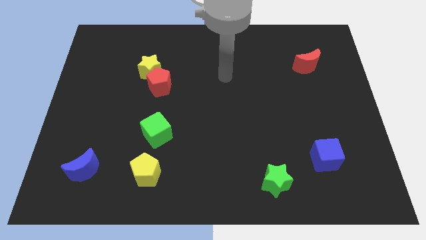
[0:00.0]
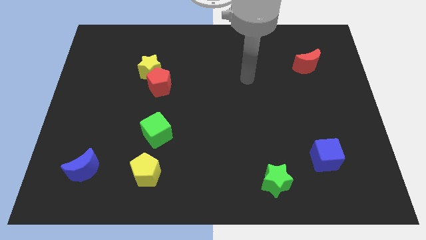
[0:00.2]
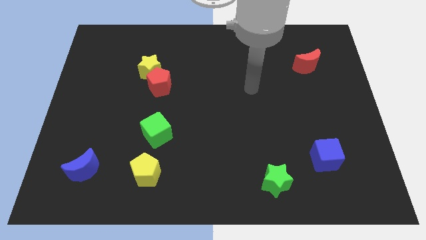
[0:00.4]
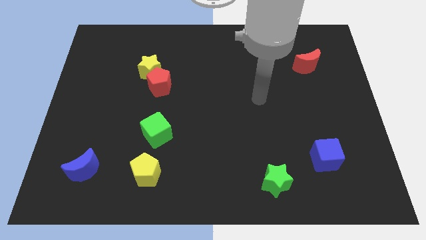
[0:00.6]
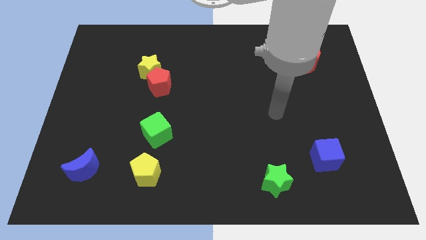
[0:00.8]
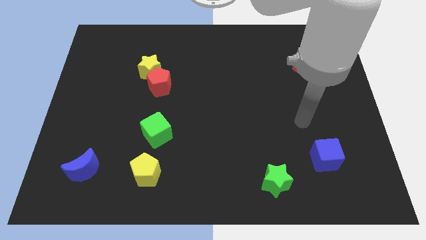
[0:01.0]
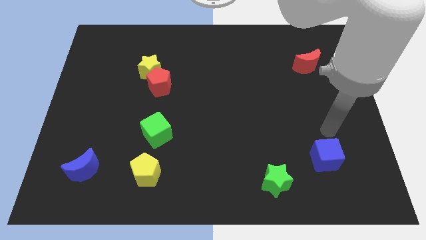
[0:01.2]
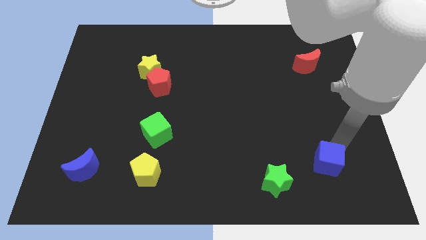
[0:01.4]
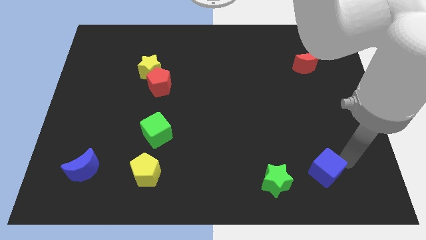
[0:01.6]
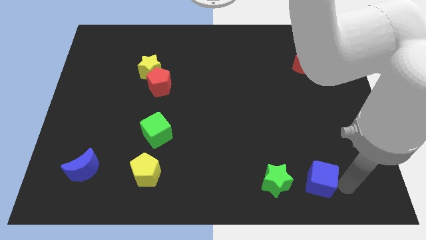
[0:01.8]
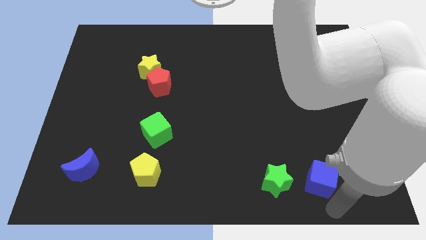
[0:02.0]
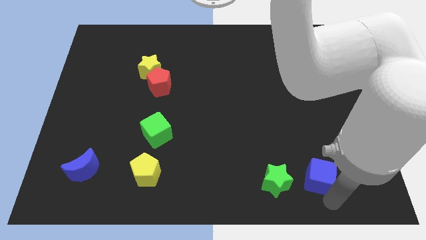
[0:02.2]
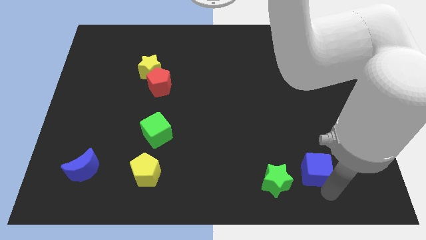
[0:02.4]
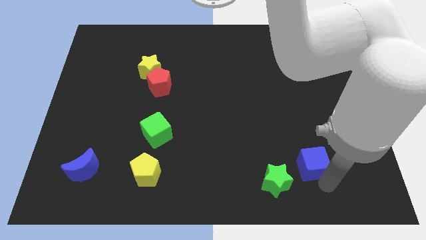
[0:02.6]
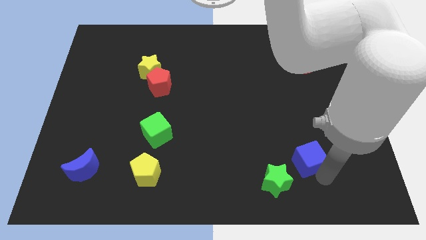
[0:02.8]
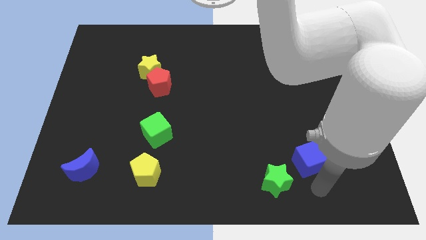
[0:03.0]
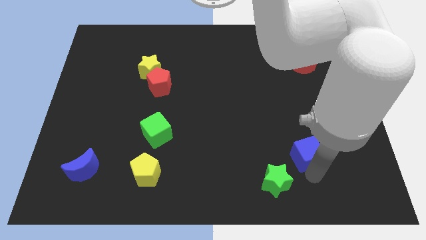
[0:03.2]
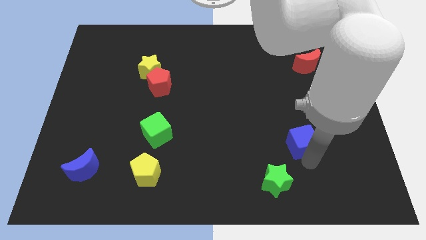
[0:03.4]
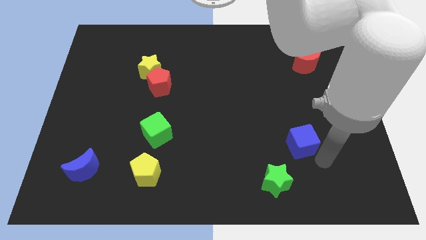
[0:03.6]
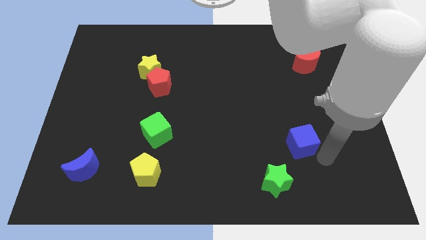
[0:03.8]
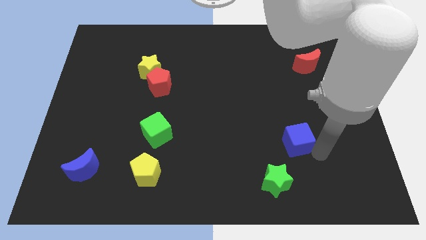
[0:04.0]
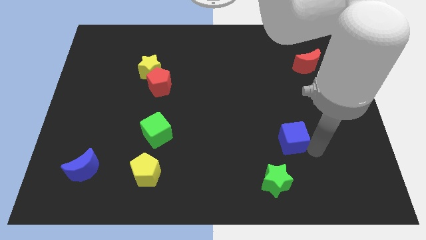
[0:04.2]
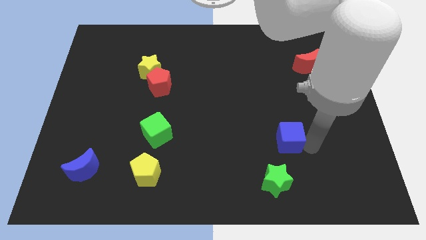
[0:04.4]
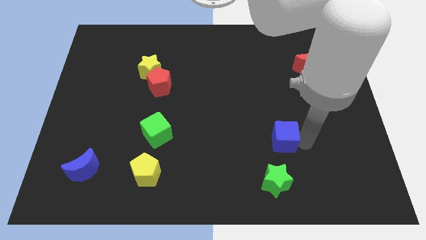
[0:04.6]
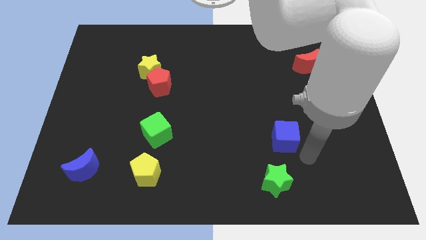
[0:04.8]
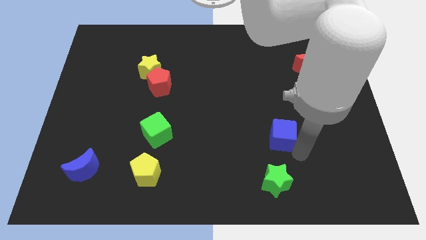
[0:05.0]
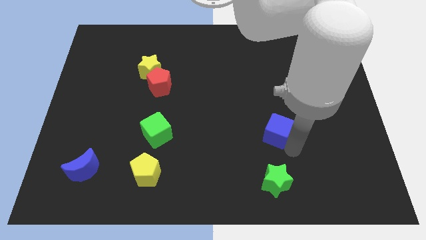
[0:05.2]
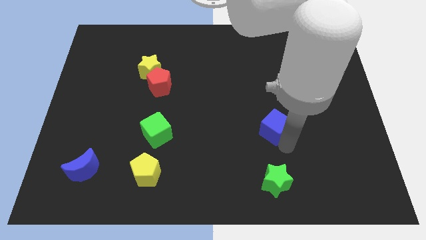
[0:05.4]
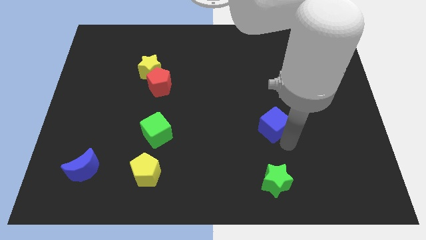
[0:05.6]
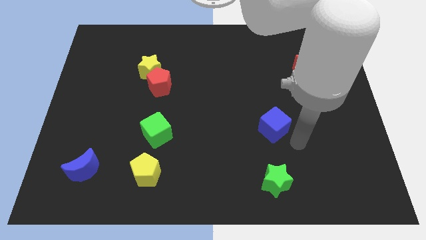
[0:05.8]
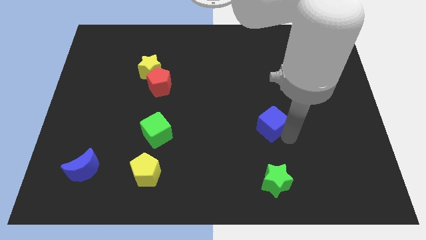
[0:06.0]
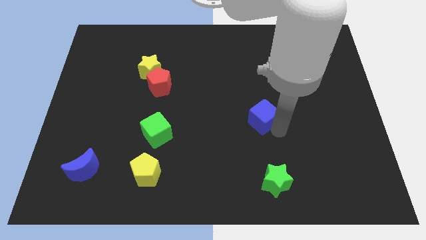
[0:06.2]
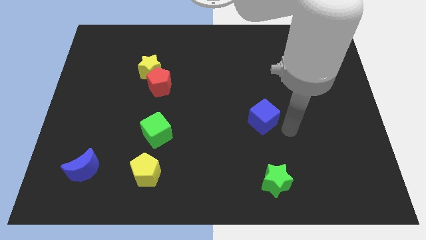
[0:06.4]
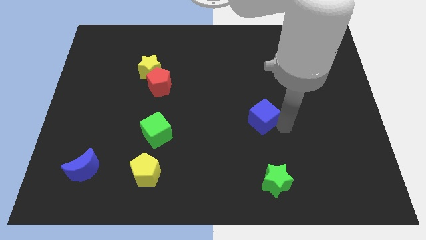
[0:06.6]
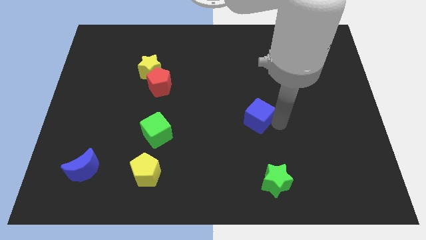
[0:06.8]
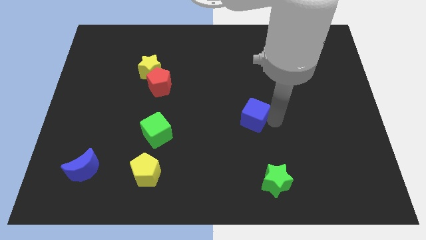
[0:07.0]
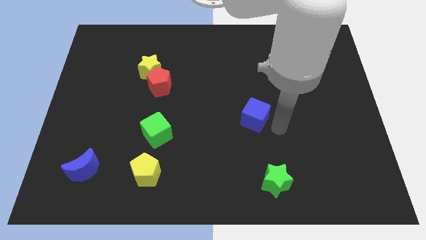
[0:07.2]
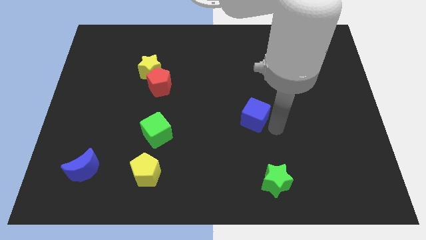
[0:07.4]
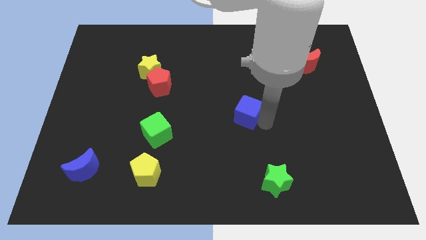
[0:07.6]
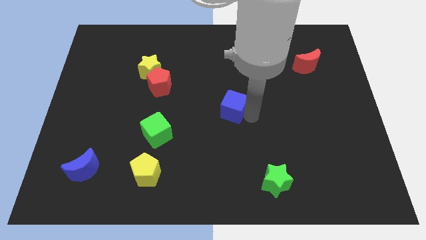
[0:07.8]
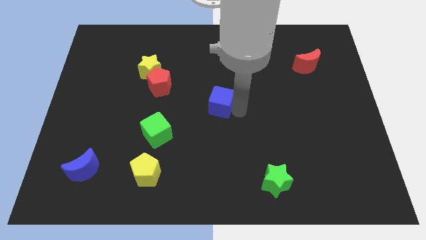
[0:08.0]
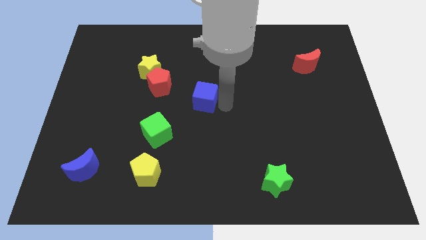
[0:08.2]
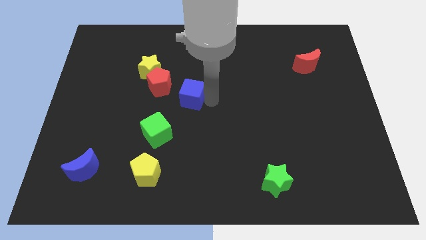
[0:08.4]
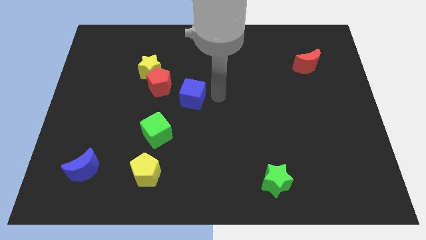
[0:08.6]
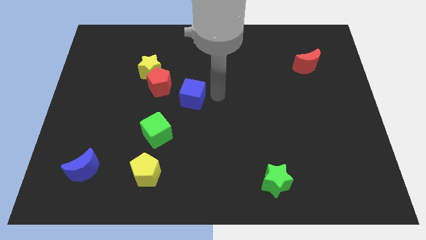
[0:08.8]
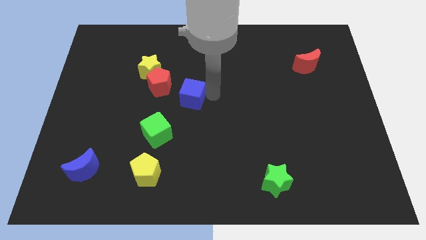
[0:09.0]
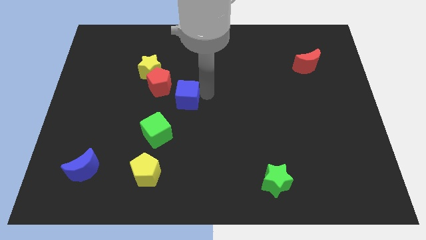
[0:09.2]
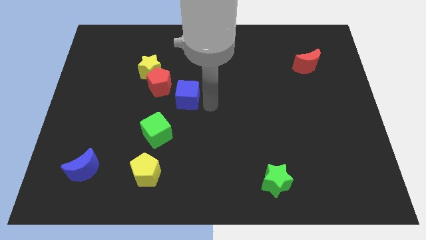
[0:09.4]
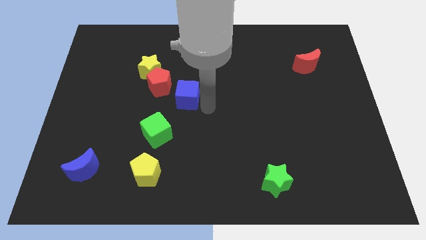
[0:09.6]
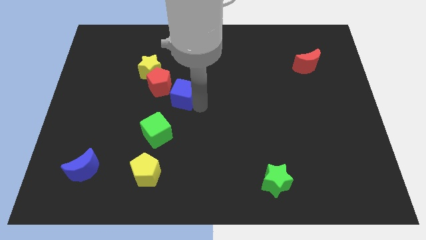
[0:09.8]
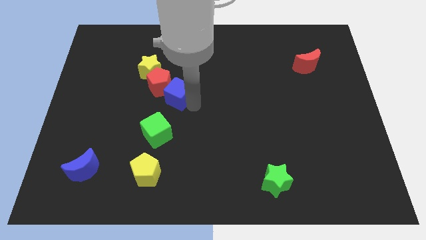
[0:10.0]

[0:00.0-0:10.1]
put the blue cube next to the red pentagon

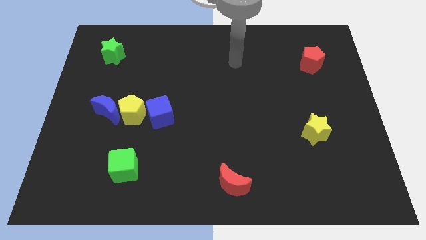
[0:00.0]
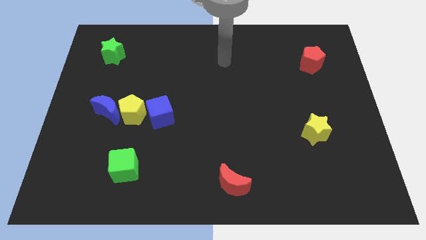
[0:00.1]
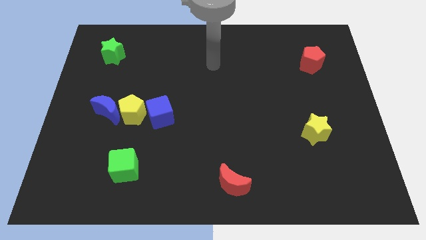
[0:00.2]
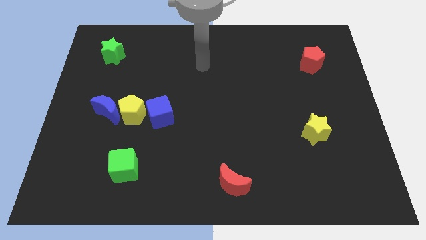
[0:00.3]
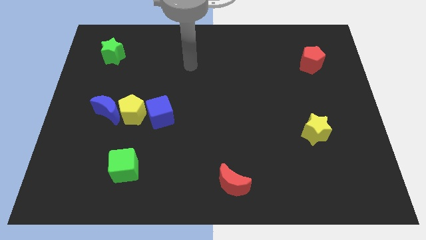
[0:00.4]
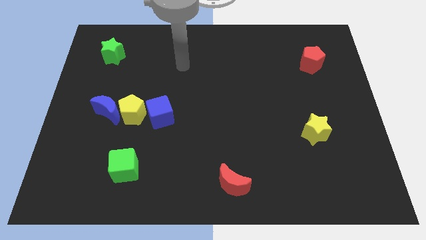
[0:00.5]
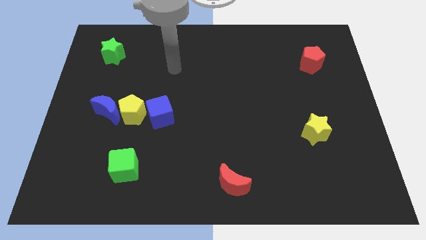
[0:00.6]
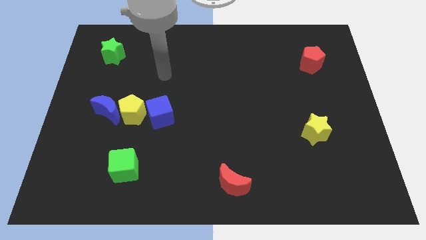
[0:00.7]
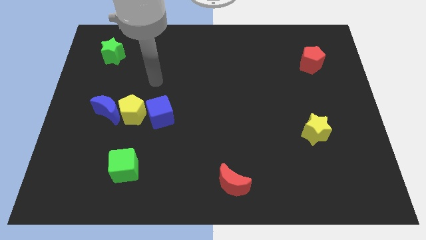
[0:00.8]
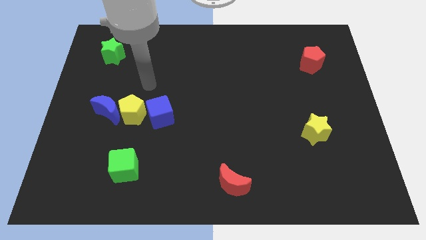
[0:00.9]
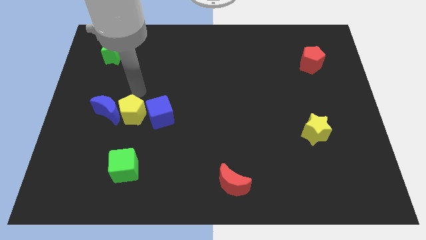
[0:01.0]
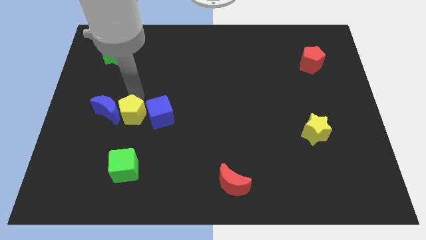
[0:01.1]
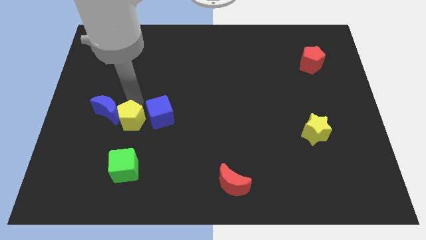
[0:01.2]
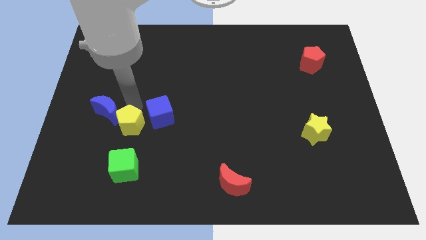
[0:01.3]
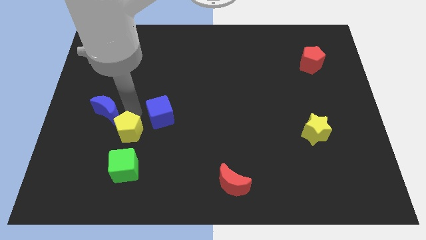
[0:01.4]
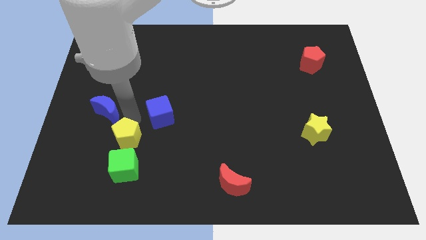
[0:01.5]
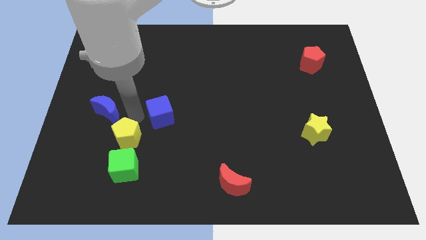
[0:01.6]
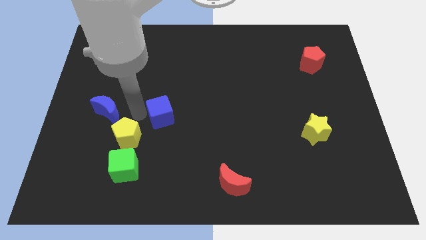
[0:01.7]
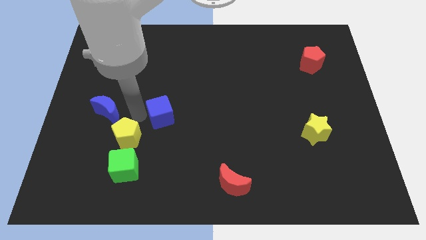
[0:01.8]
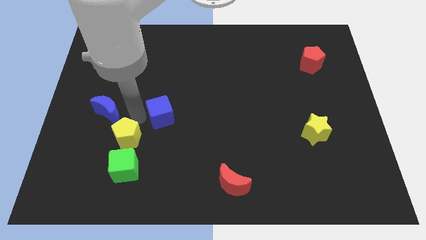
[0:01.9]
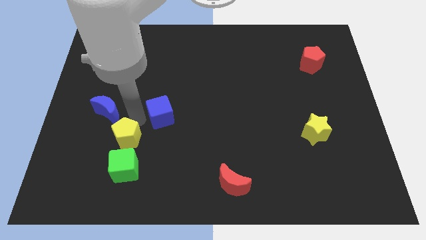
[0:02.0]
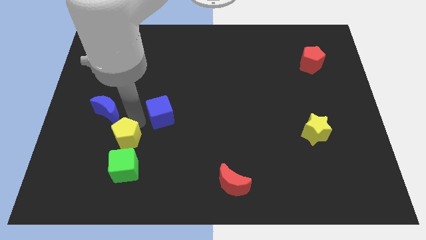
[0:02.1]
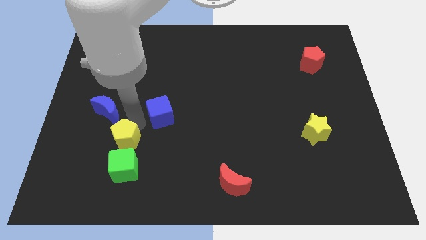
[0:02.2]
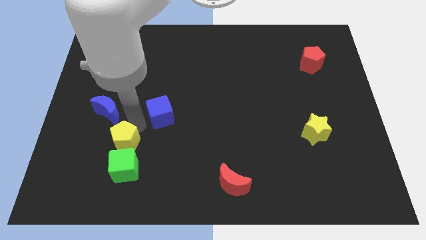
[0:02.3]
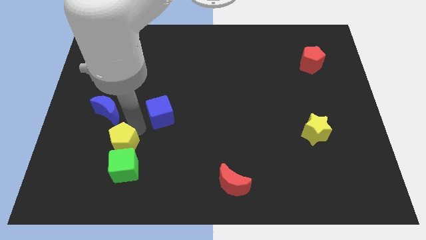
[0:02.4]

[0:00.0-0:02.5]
push the yellow pentagon next to the green cube
